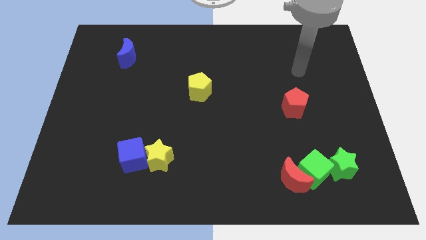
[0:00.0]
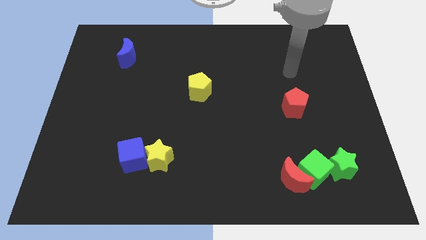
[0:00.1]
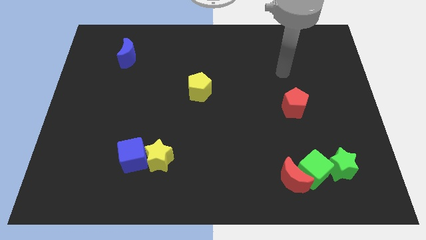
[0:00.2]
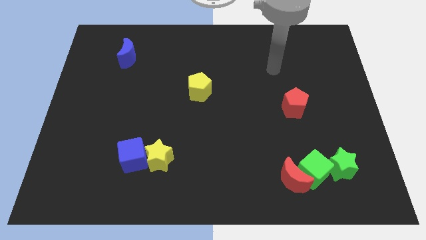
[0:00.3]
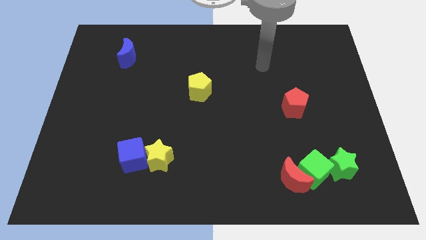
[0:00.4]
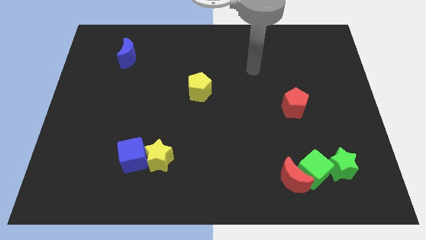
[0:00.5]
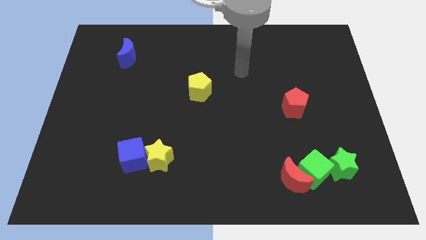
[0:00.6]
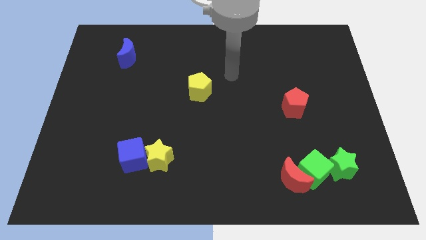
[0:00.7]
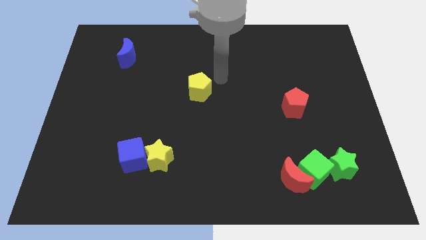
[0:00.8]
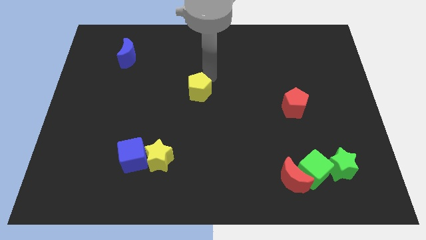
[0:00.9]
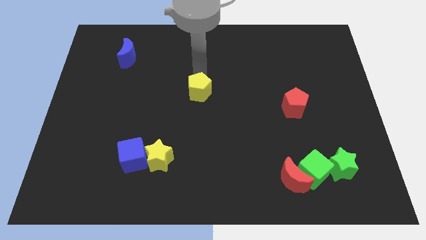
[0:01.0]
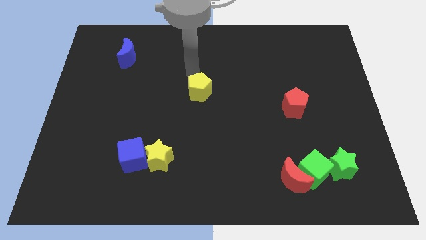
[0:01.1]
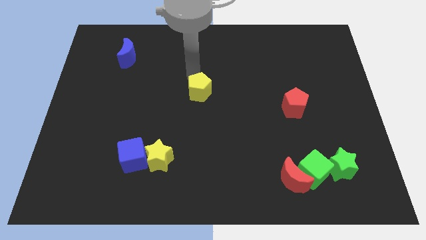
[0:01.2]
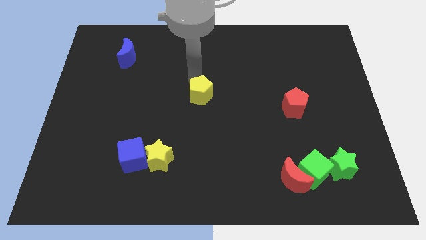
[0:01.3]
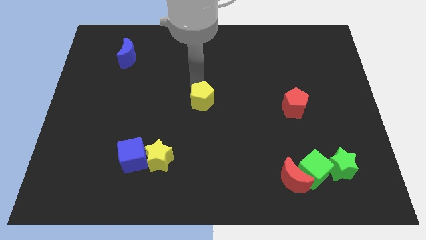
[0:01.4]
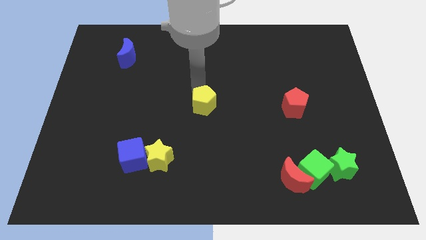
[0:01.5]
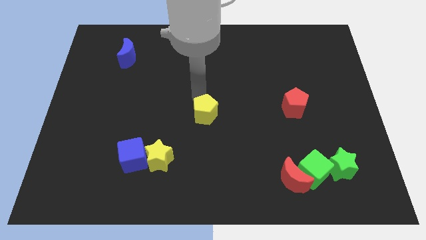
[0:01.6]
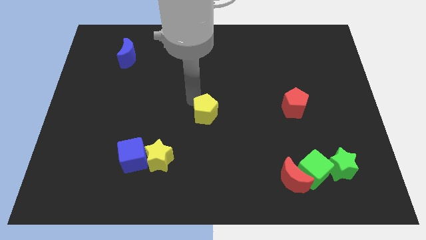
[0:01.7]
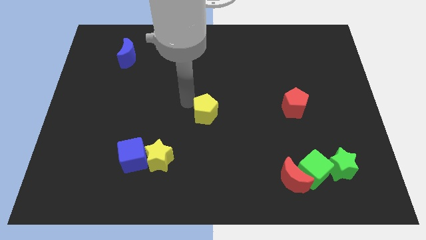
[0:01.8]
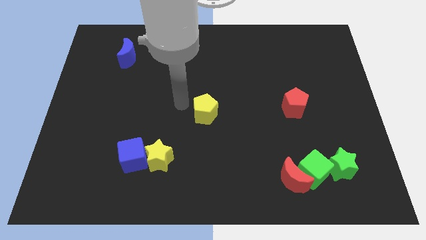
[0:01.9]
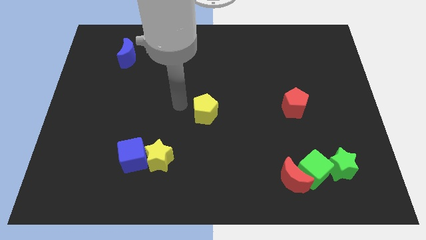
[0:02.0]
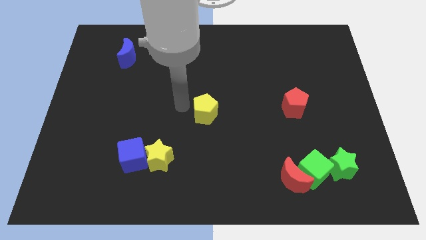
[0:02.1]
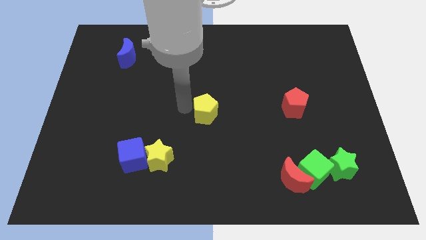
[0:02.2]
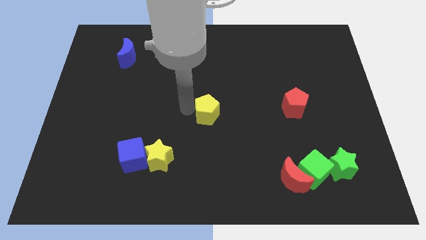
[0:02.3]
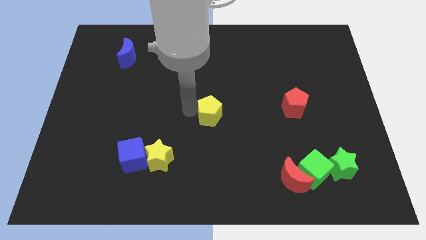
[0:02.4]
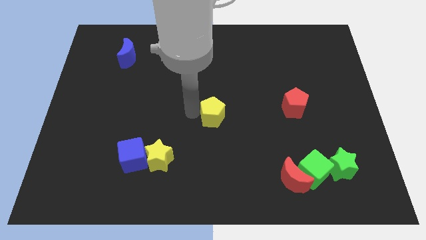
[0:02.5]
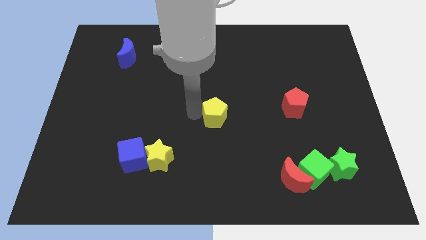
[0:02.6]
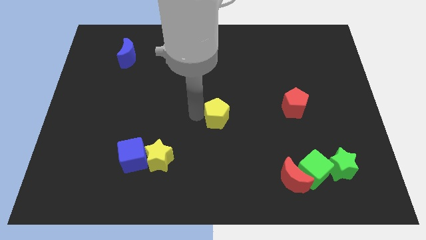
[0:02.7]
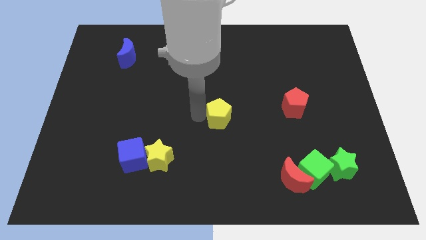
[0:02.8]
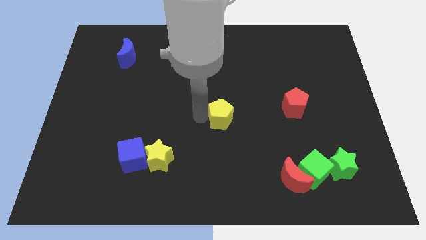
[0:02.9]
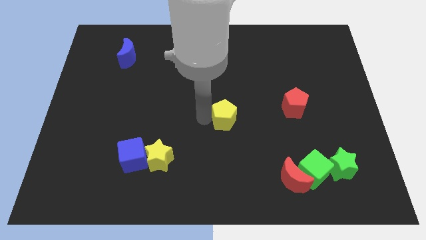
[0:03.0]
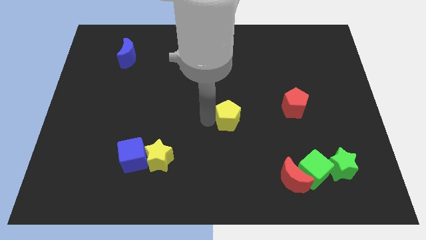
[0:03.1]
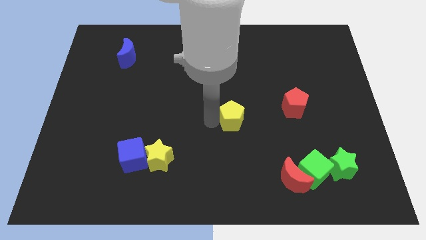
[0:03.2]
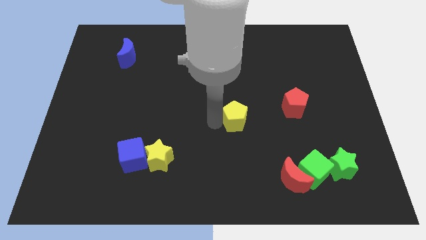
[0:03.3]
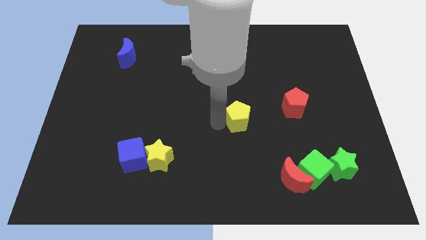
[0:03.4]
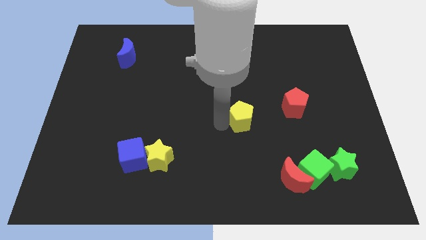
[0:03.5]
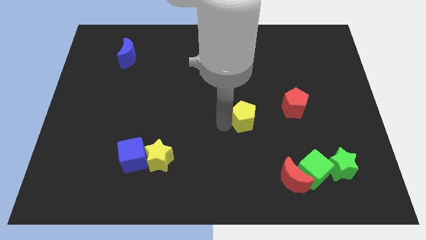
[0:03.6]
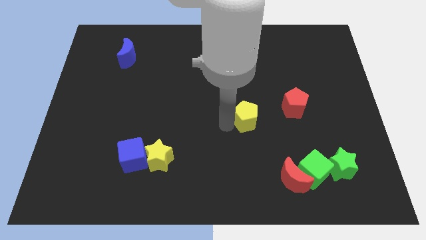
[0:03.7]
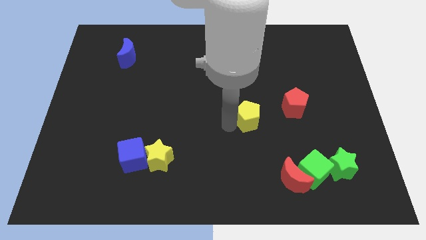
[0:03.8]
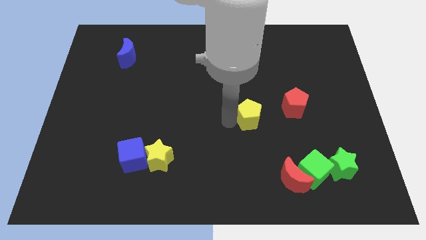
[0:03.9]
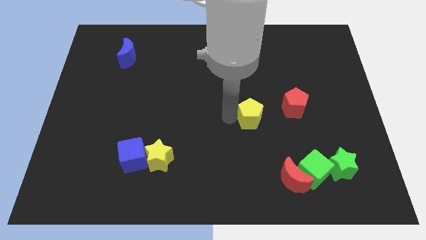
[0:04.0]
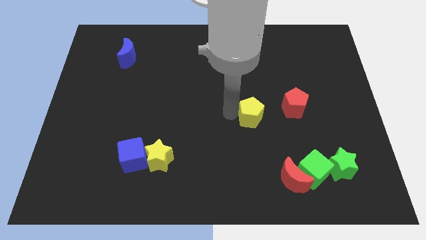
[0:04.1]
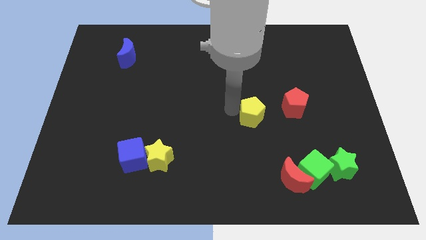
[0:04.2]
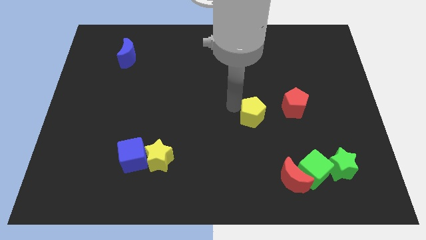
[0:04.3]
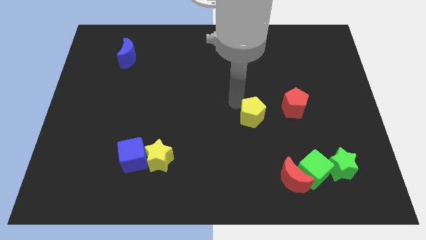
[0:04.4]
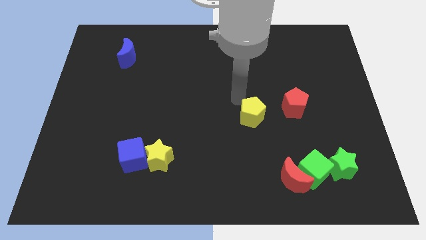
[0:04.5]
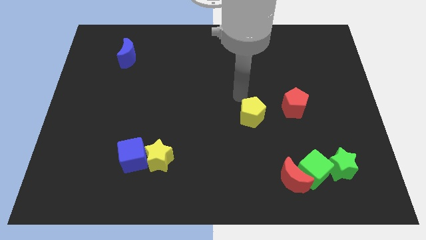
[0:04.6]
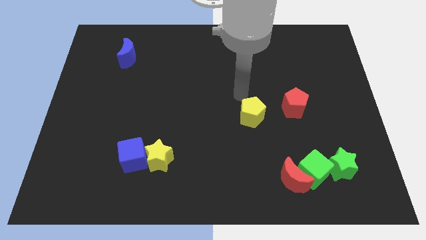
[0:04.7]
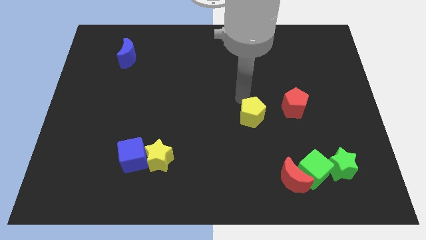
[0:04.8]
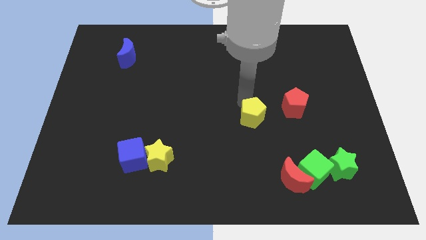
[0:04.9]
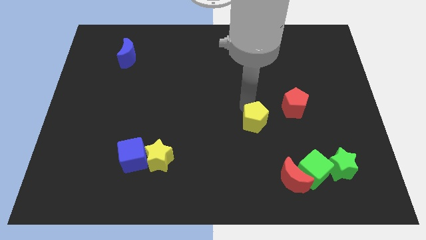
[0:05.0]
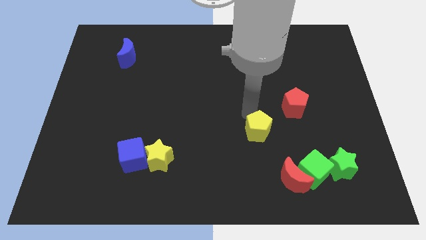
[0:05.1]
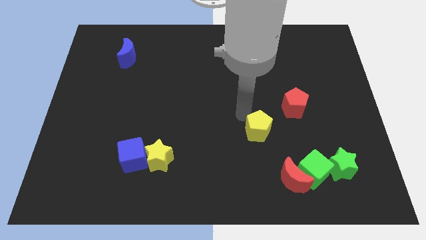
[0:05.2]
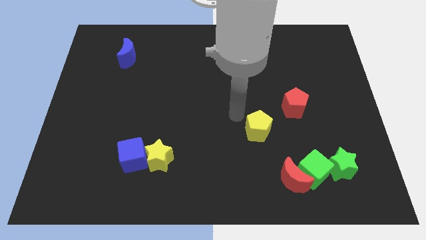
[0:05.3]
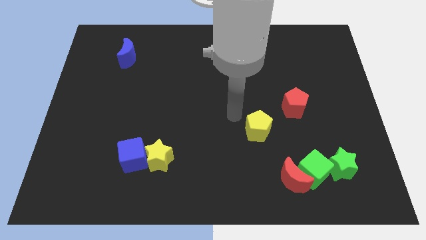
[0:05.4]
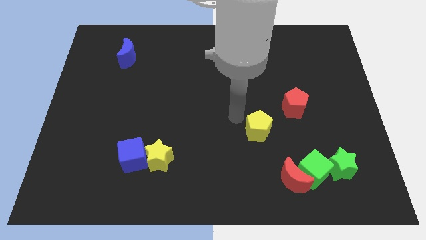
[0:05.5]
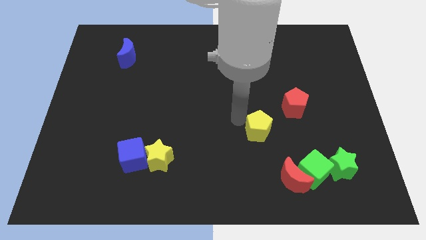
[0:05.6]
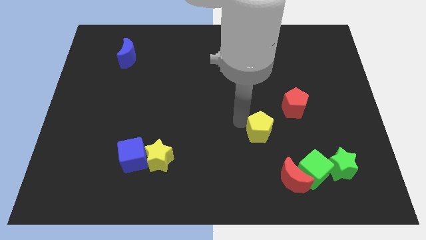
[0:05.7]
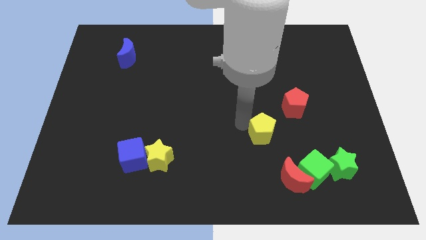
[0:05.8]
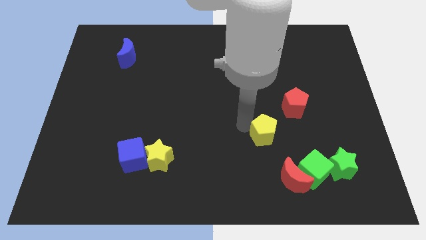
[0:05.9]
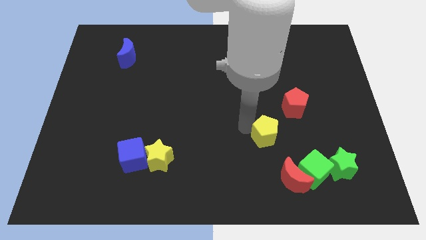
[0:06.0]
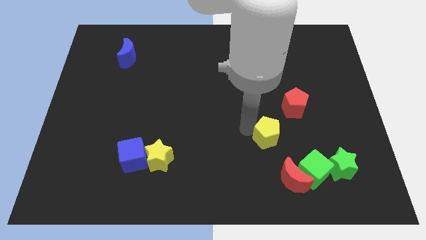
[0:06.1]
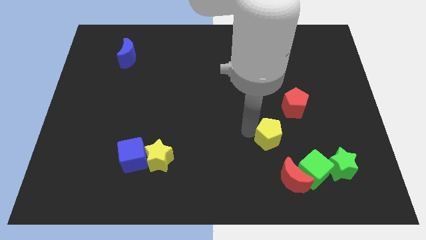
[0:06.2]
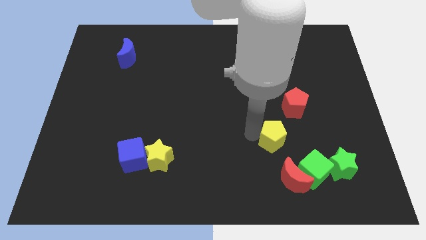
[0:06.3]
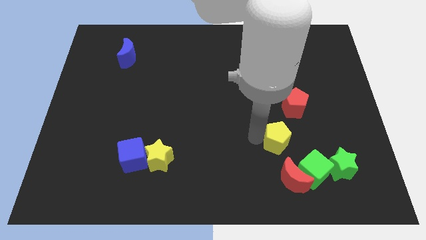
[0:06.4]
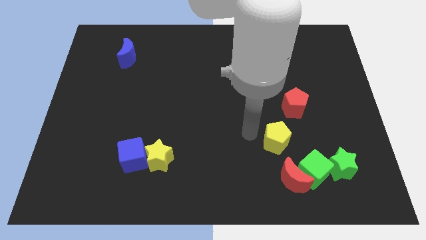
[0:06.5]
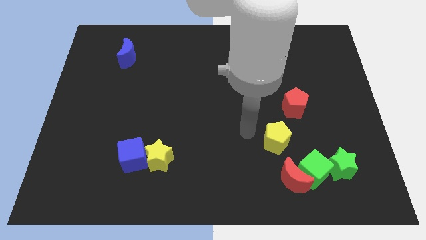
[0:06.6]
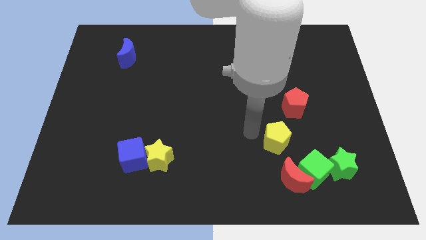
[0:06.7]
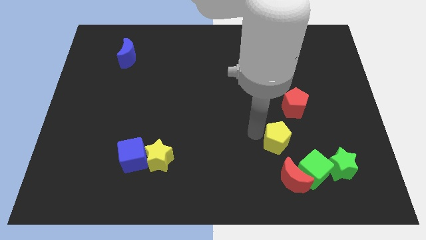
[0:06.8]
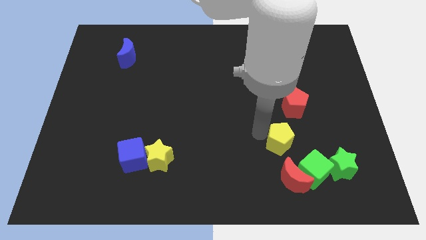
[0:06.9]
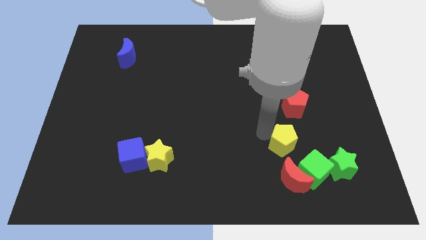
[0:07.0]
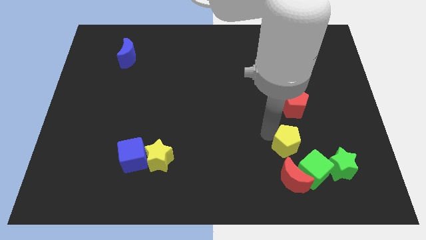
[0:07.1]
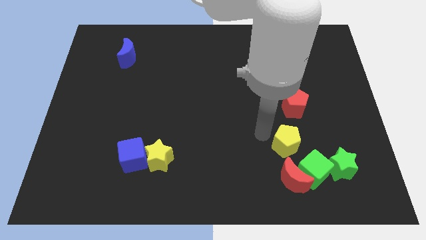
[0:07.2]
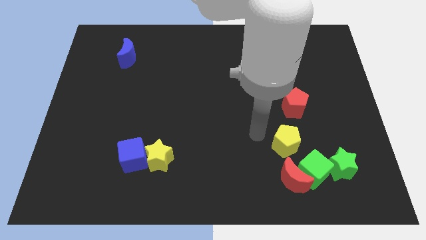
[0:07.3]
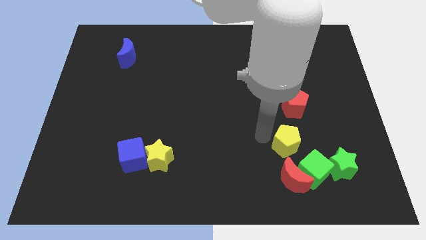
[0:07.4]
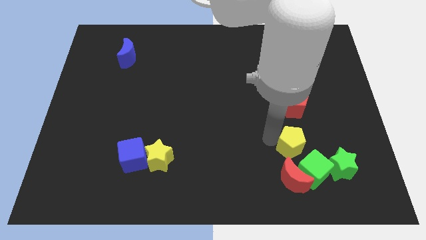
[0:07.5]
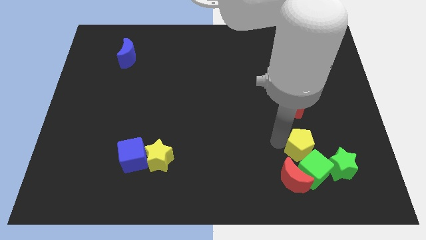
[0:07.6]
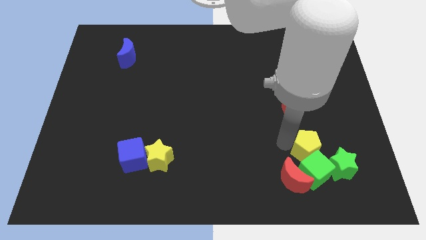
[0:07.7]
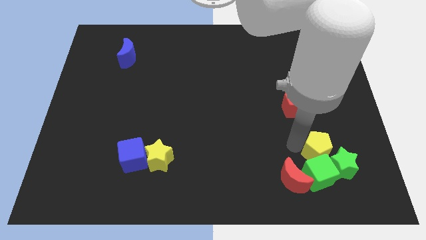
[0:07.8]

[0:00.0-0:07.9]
put the yellow pentagon next to the green star
